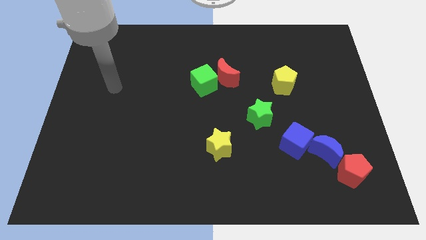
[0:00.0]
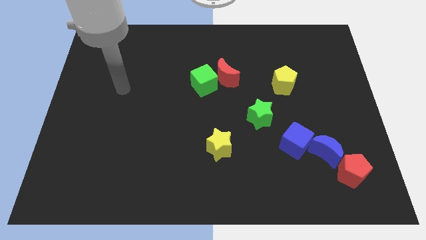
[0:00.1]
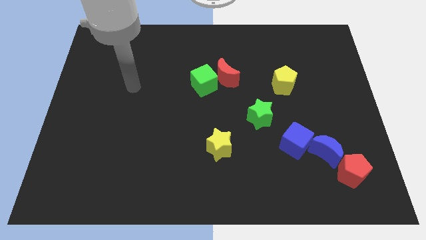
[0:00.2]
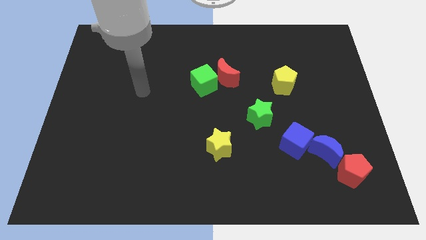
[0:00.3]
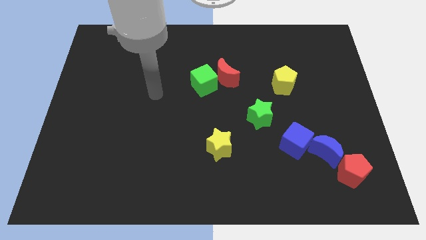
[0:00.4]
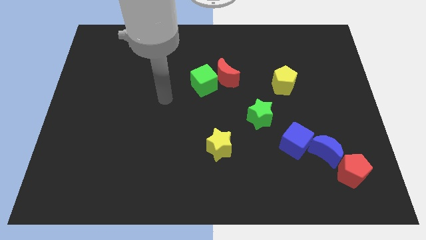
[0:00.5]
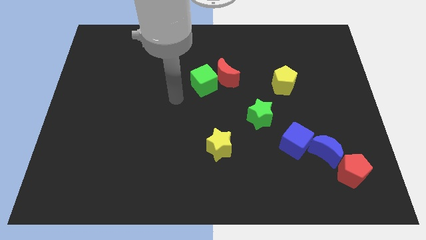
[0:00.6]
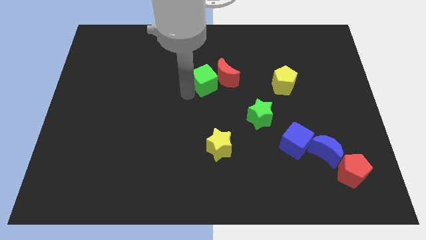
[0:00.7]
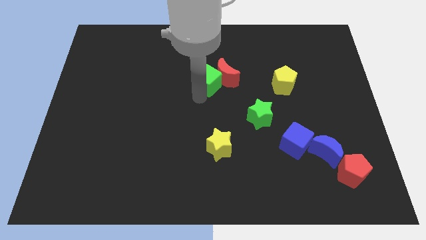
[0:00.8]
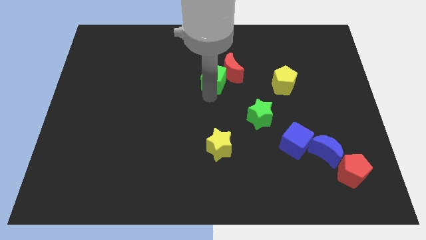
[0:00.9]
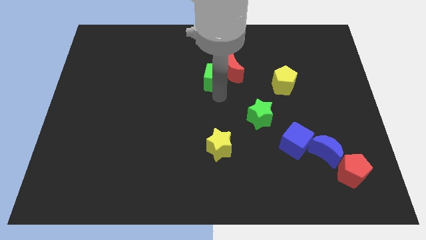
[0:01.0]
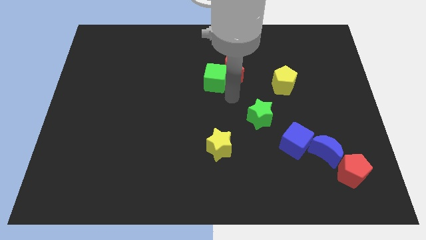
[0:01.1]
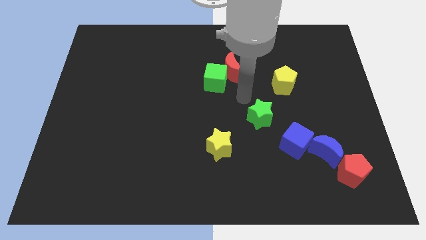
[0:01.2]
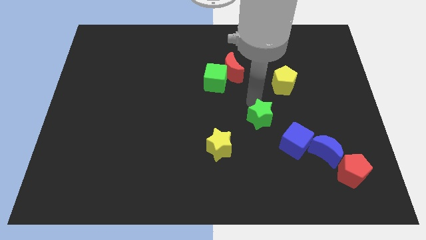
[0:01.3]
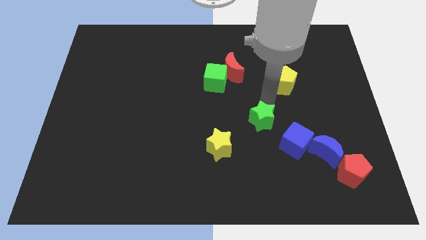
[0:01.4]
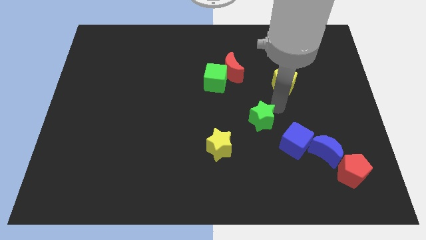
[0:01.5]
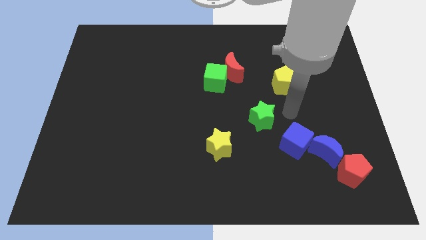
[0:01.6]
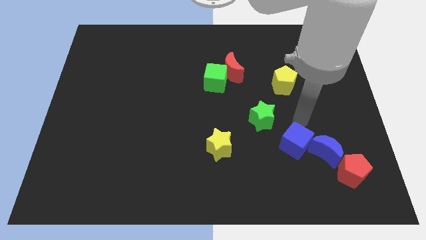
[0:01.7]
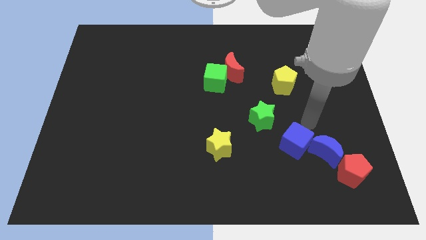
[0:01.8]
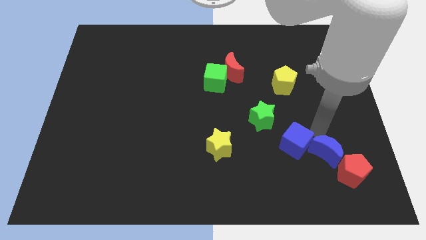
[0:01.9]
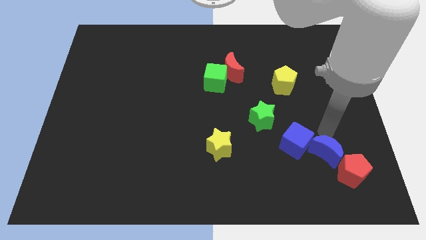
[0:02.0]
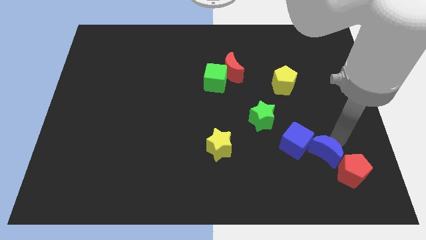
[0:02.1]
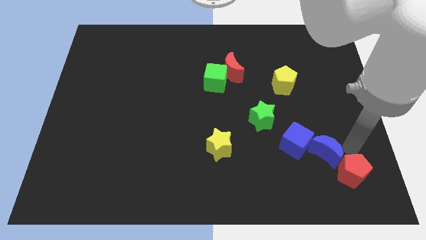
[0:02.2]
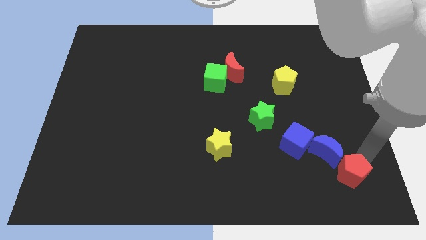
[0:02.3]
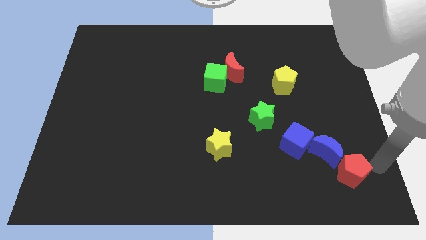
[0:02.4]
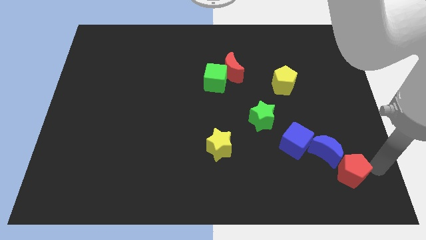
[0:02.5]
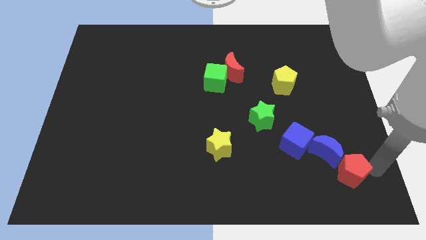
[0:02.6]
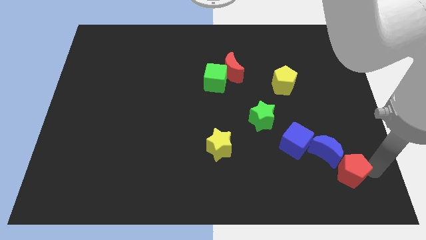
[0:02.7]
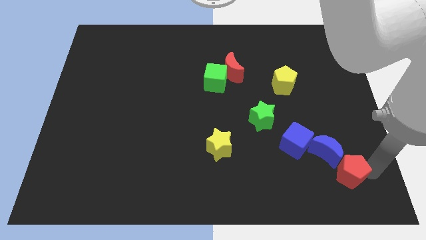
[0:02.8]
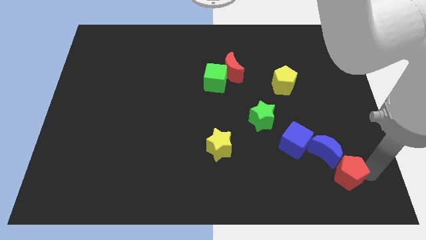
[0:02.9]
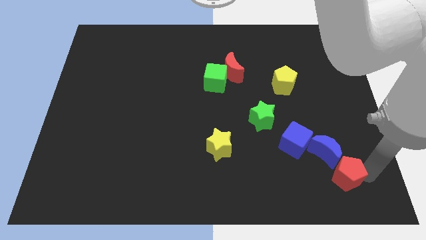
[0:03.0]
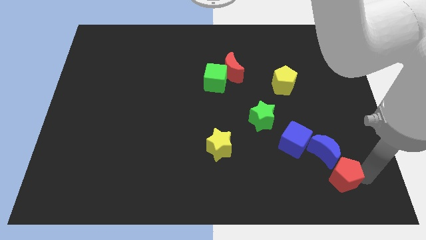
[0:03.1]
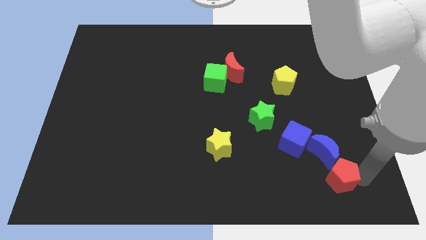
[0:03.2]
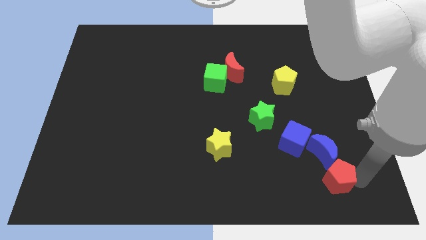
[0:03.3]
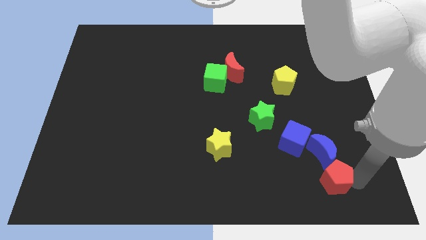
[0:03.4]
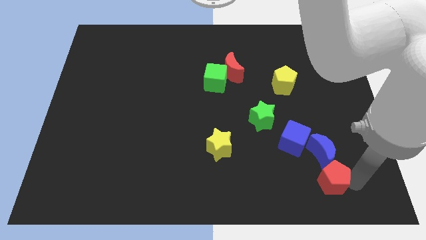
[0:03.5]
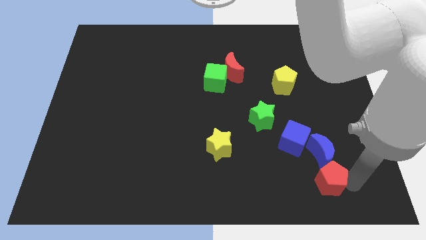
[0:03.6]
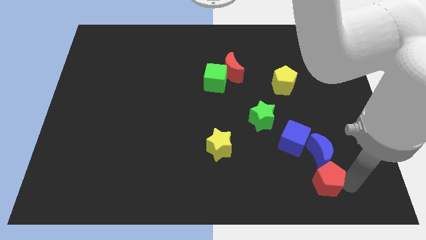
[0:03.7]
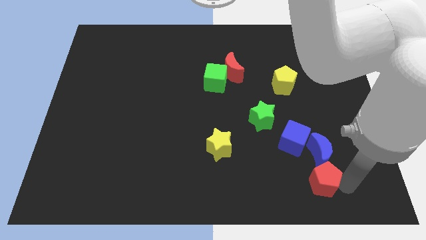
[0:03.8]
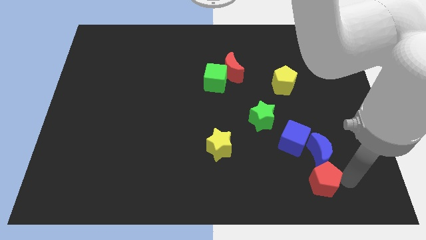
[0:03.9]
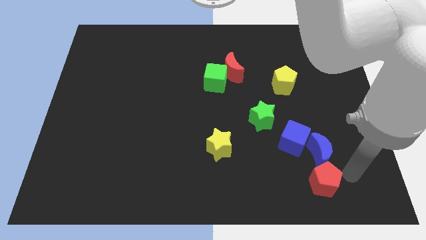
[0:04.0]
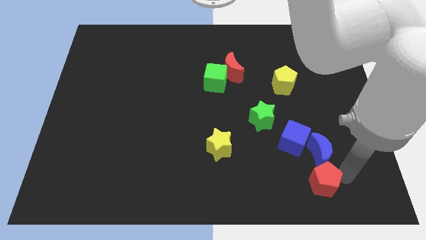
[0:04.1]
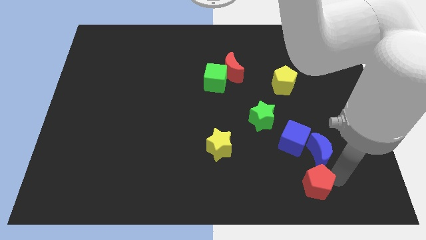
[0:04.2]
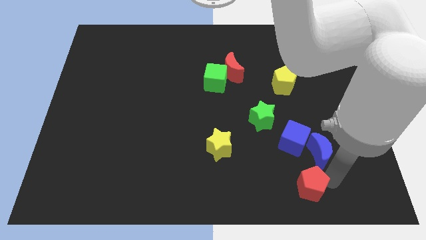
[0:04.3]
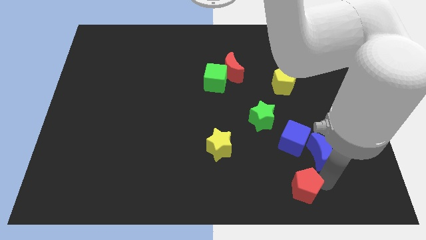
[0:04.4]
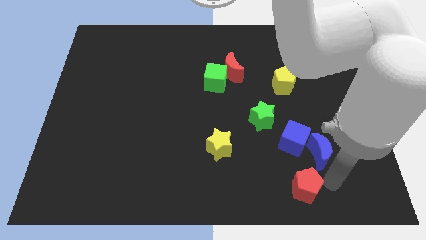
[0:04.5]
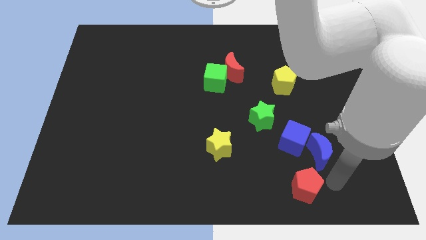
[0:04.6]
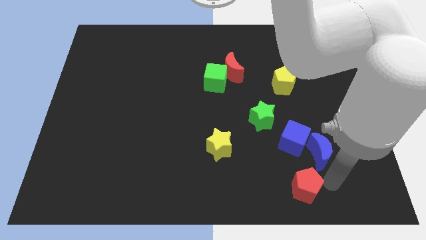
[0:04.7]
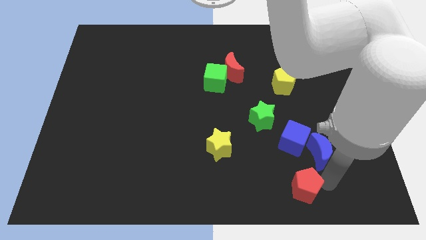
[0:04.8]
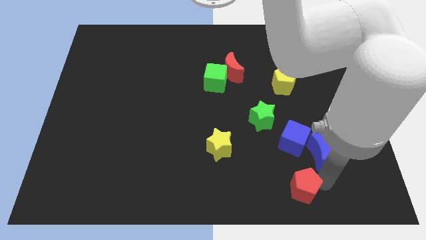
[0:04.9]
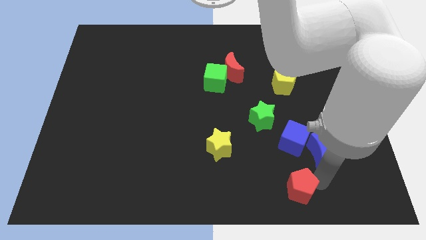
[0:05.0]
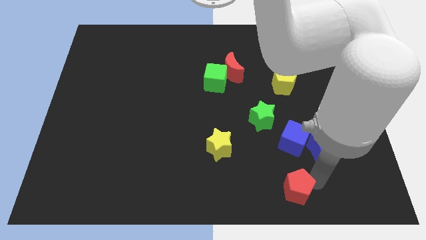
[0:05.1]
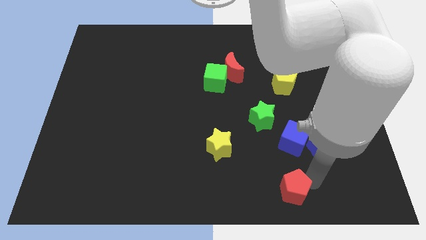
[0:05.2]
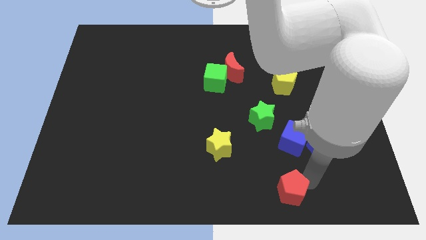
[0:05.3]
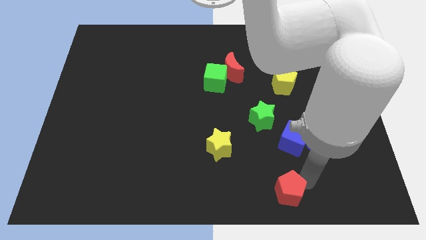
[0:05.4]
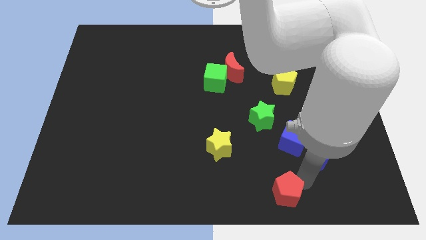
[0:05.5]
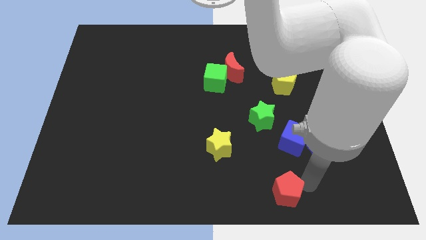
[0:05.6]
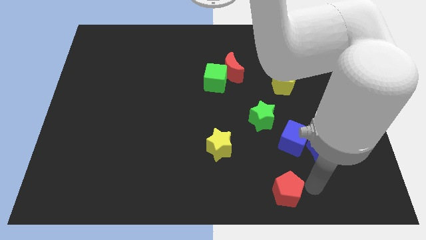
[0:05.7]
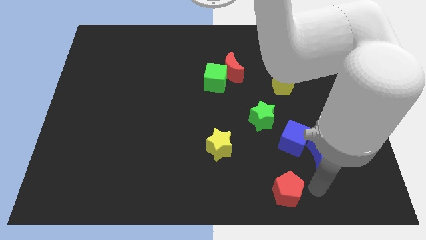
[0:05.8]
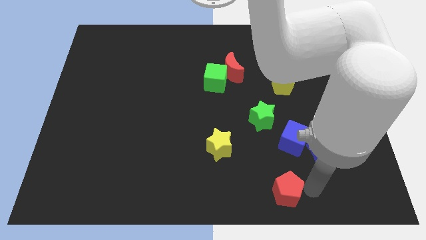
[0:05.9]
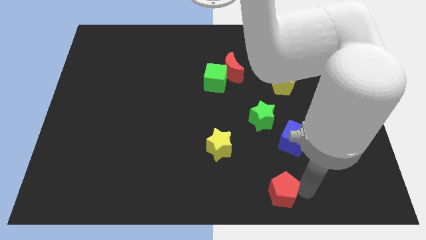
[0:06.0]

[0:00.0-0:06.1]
slide the red pentagon to the bottom

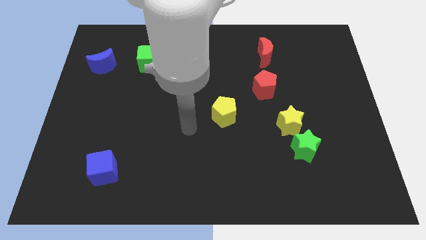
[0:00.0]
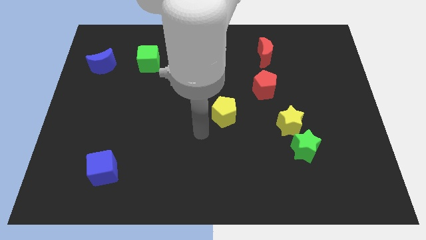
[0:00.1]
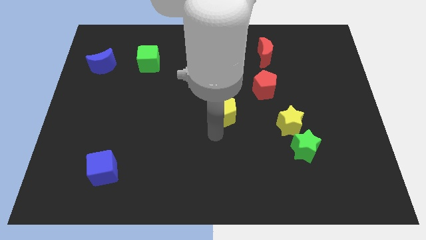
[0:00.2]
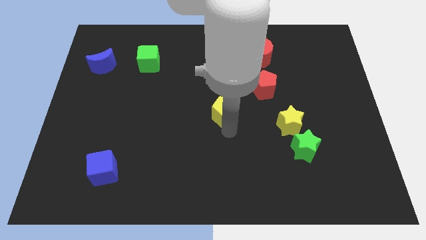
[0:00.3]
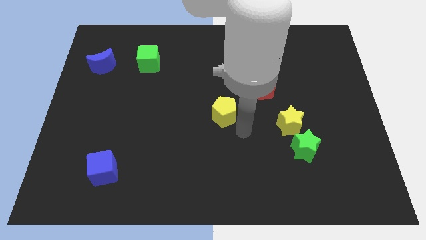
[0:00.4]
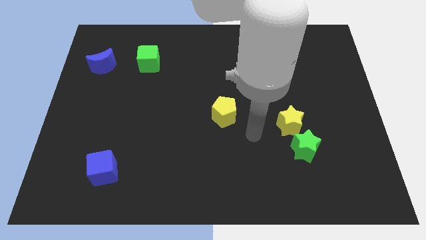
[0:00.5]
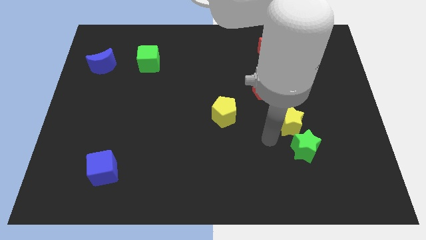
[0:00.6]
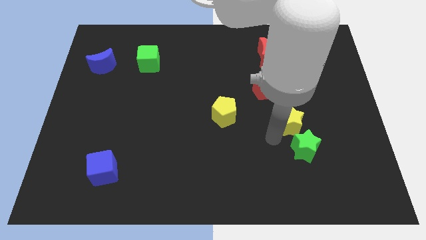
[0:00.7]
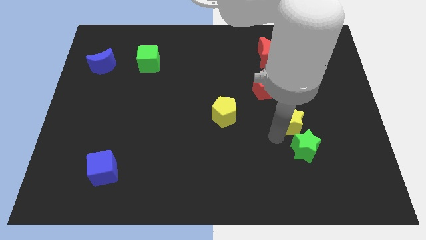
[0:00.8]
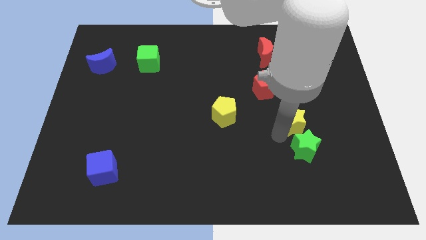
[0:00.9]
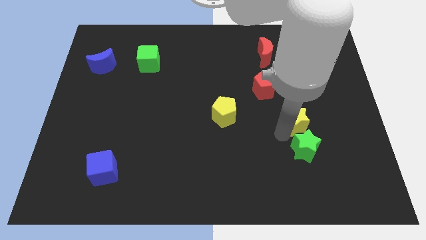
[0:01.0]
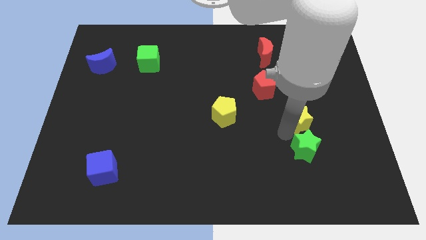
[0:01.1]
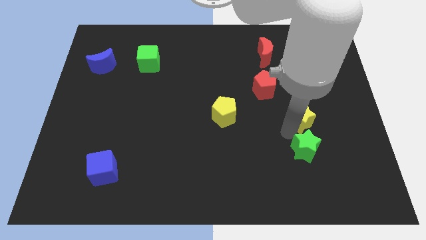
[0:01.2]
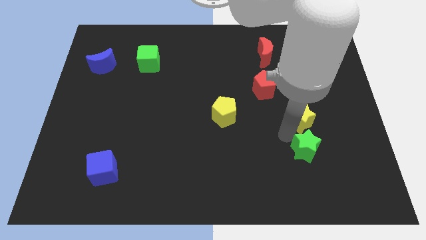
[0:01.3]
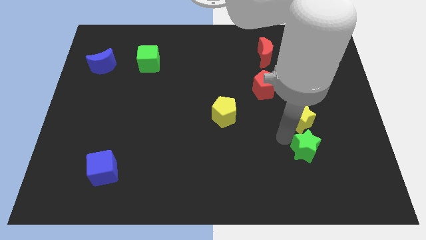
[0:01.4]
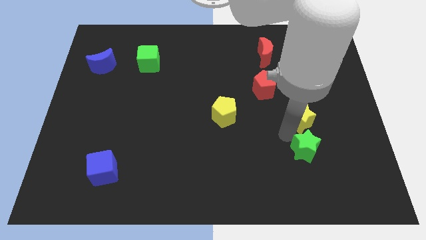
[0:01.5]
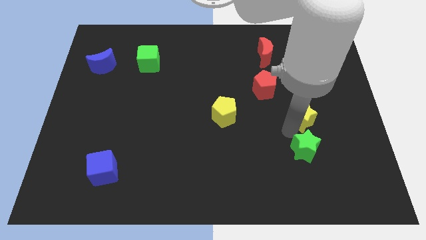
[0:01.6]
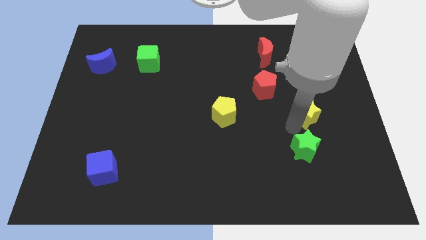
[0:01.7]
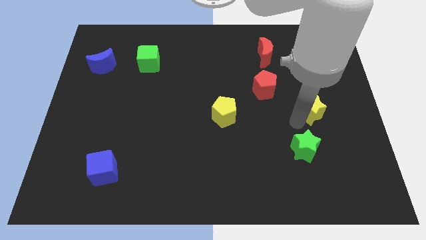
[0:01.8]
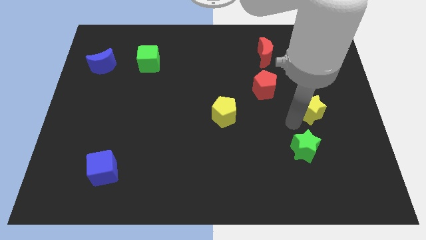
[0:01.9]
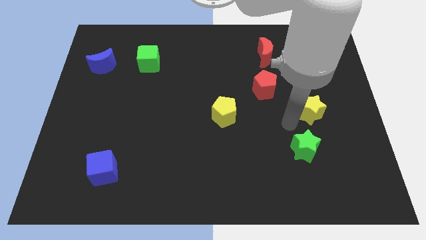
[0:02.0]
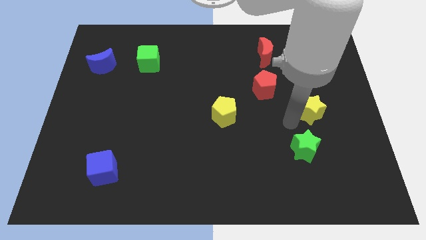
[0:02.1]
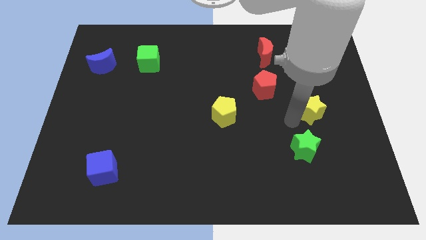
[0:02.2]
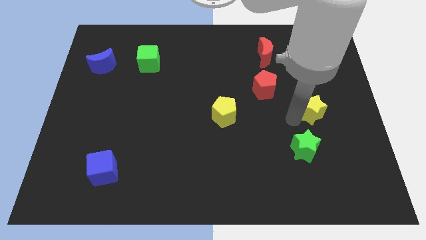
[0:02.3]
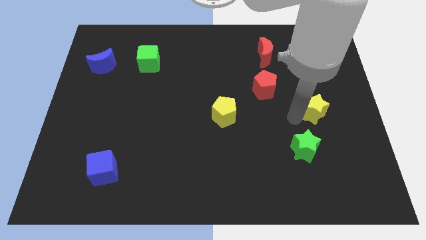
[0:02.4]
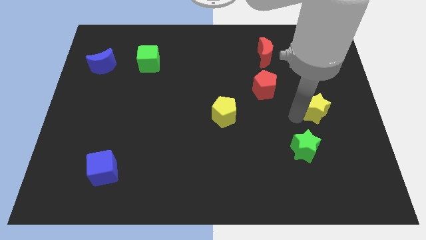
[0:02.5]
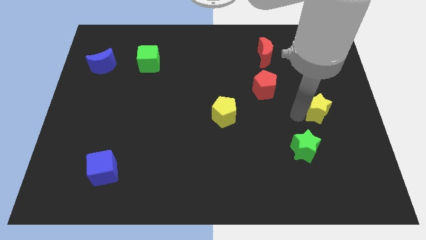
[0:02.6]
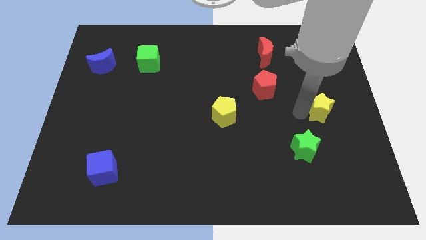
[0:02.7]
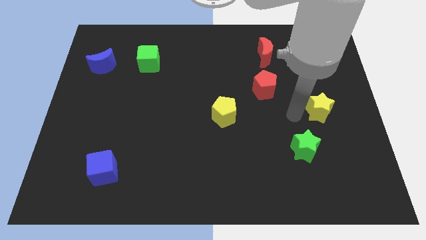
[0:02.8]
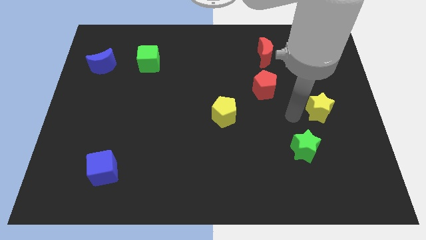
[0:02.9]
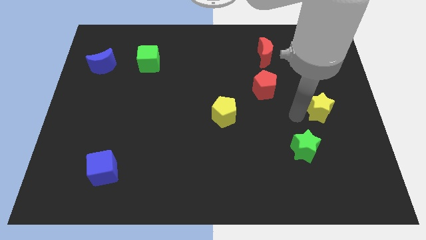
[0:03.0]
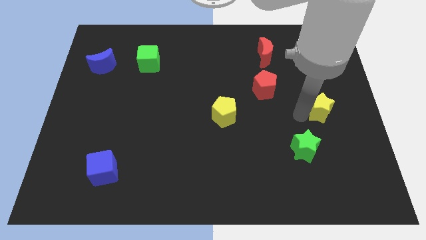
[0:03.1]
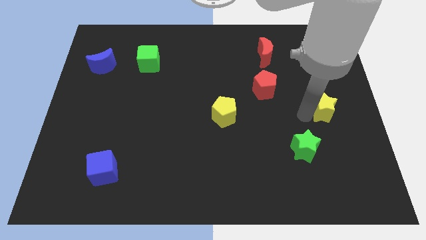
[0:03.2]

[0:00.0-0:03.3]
put the yellow star to the right side of the board
